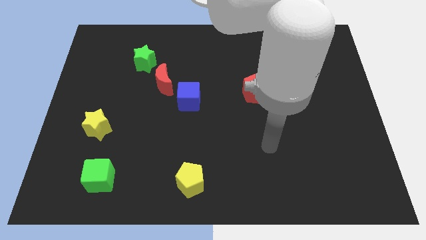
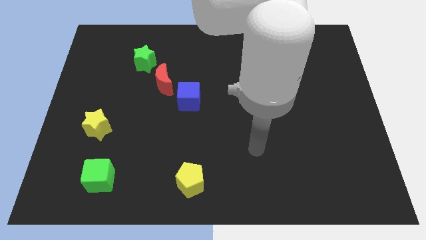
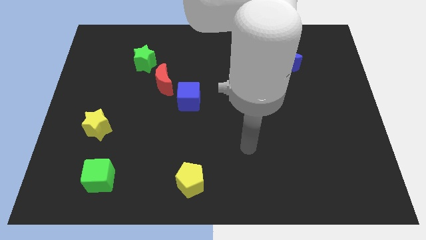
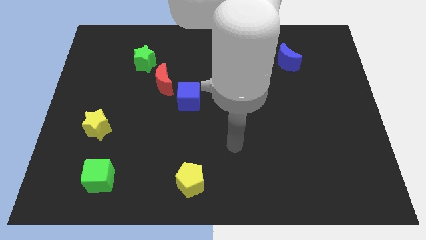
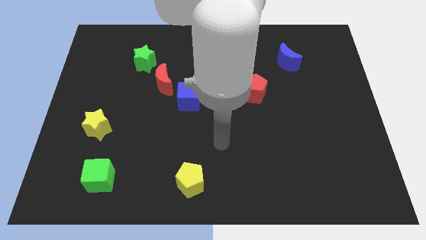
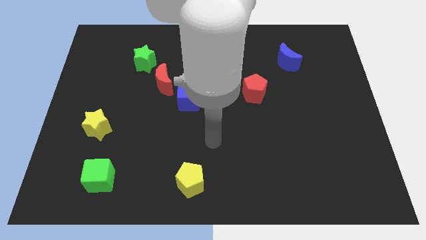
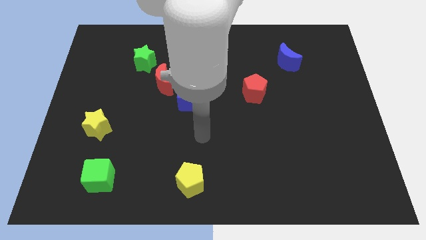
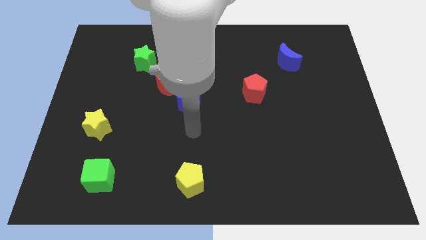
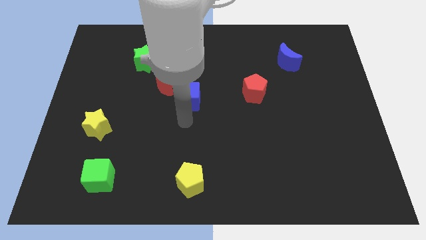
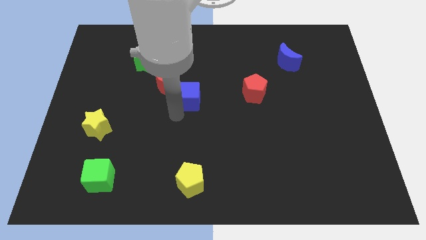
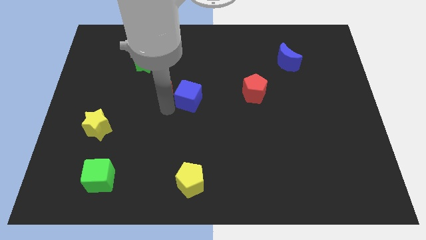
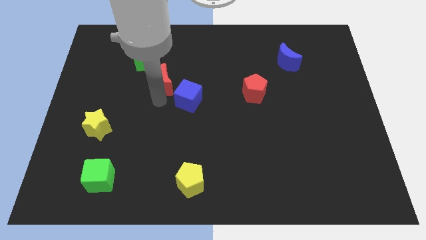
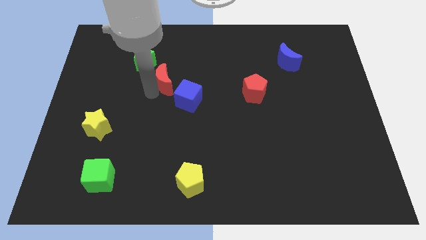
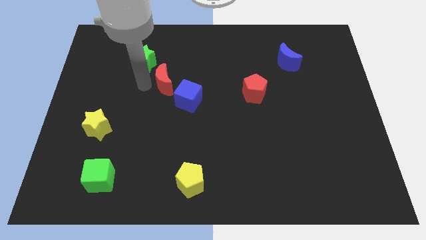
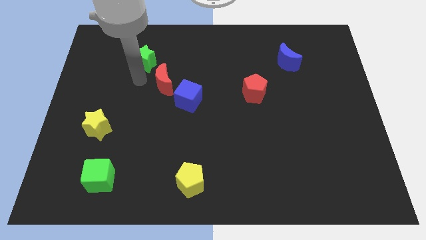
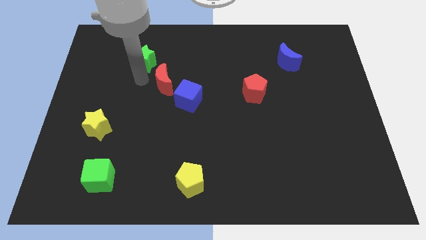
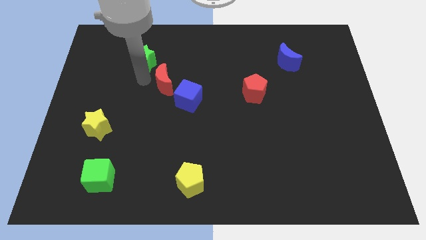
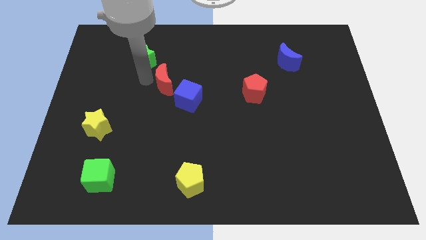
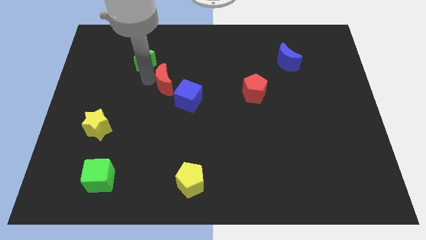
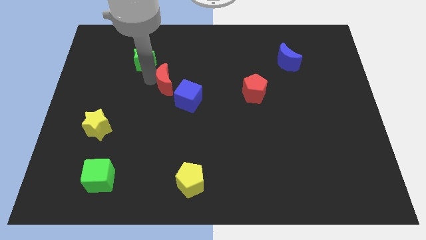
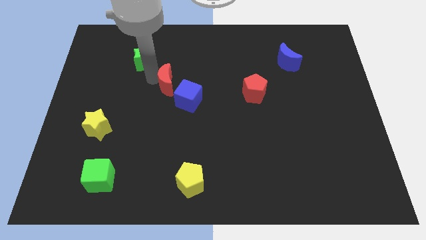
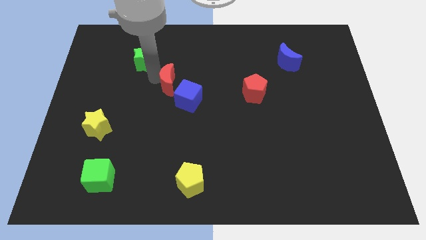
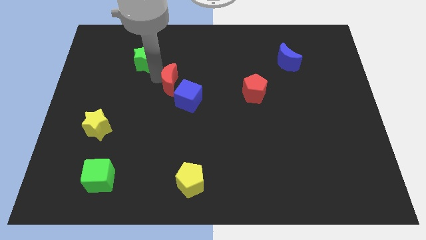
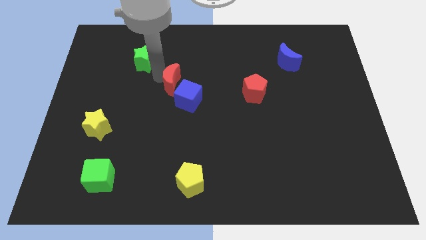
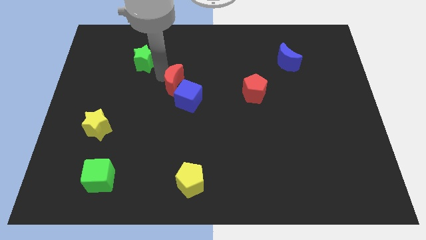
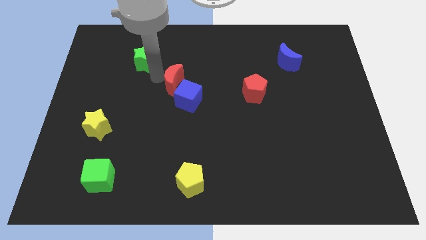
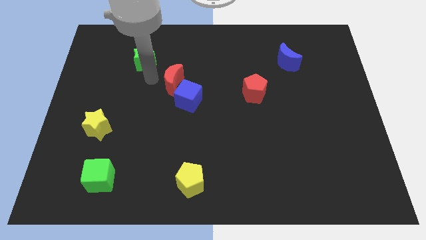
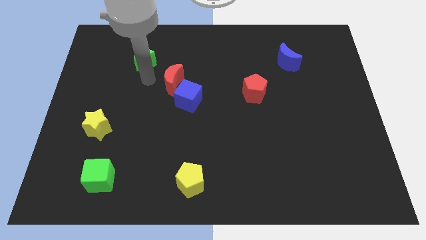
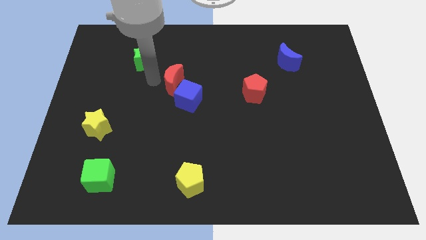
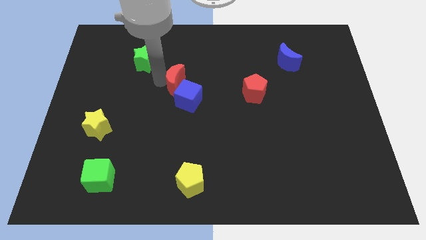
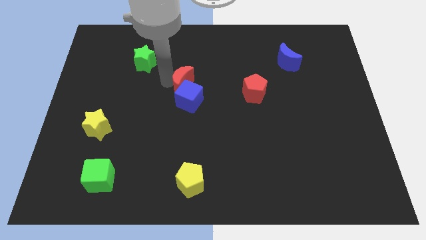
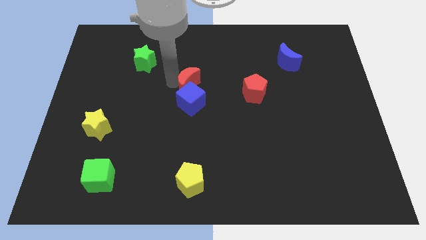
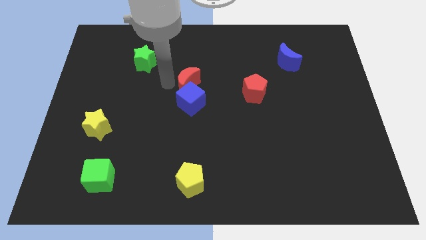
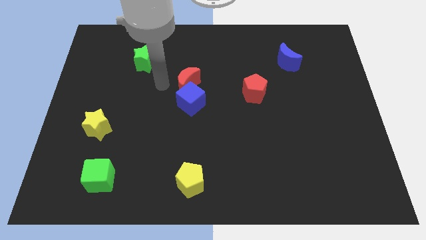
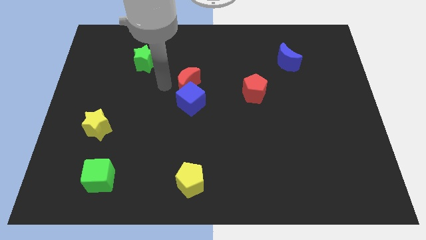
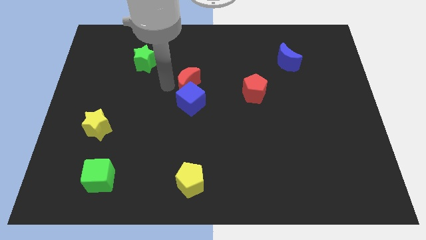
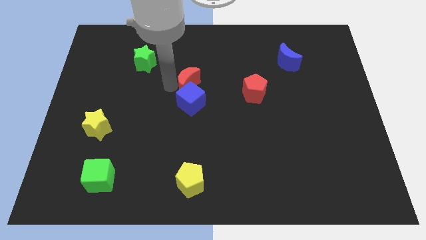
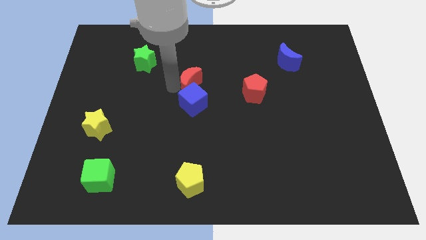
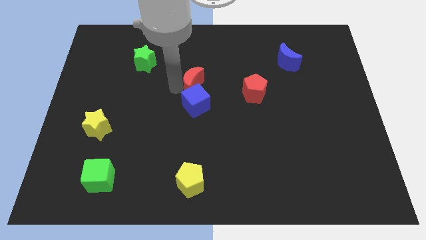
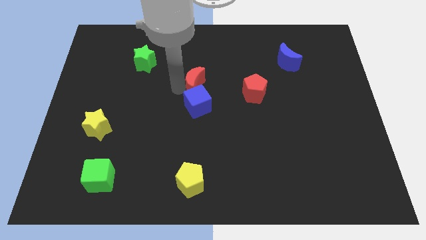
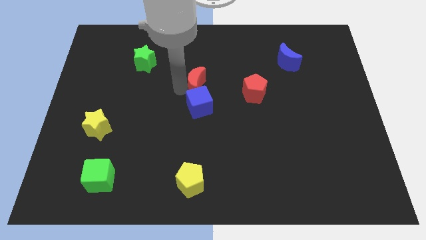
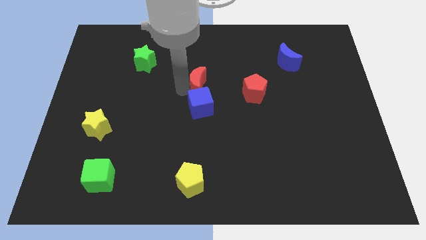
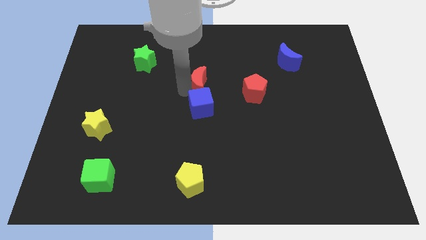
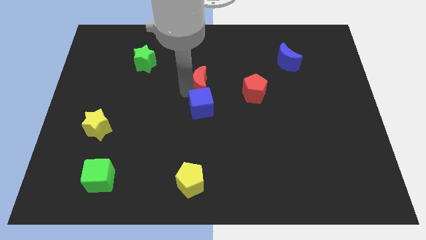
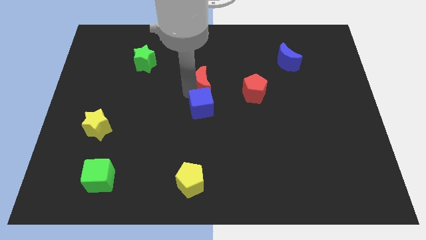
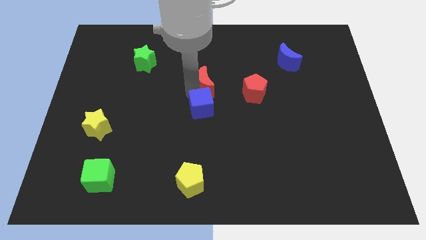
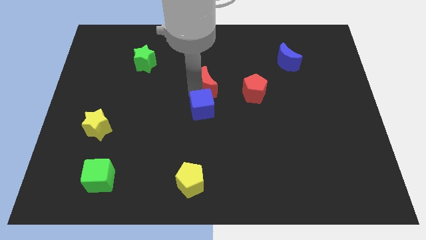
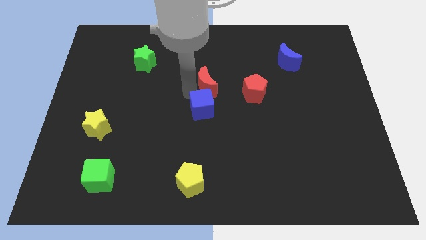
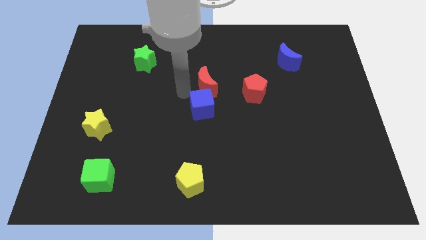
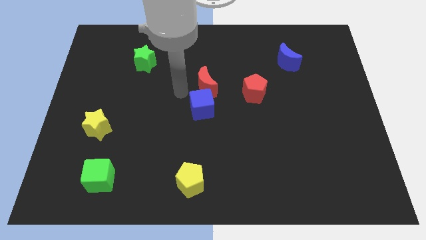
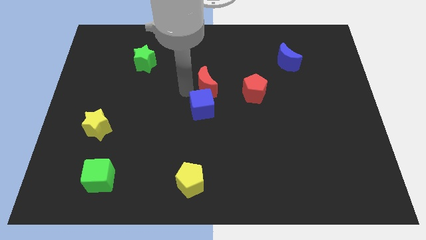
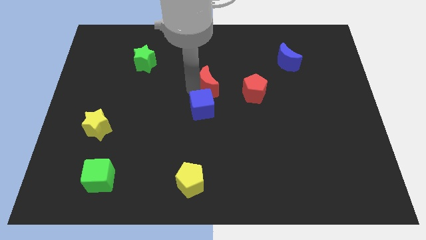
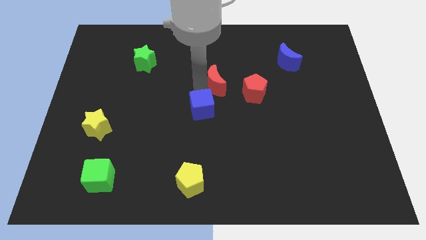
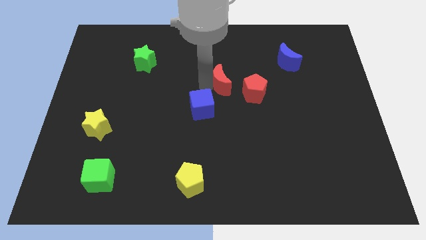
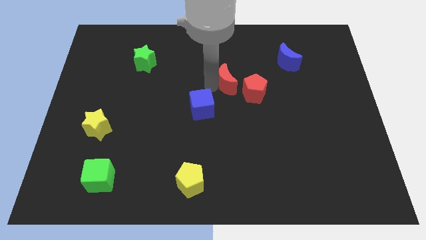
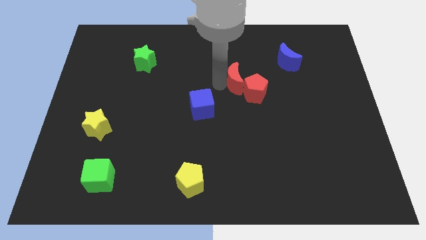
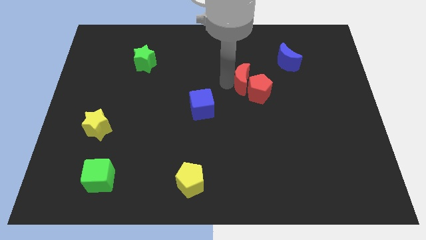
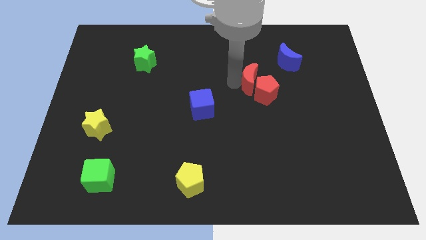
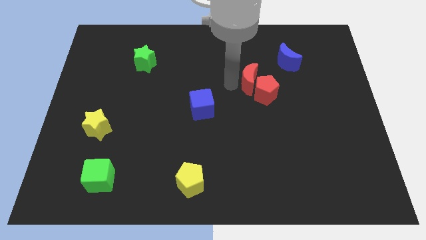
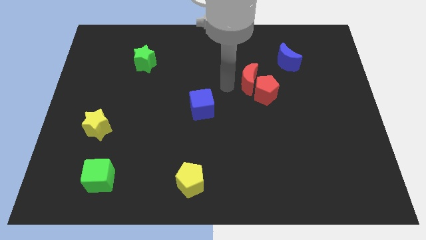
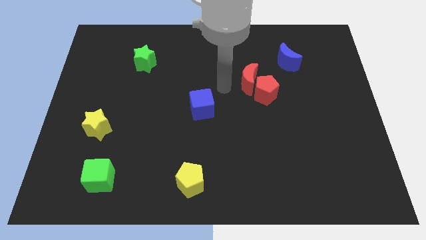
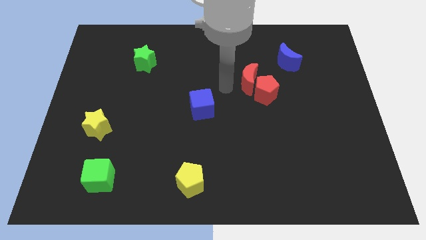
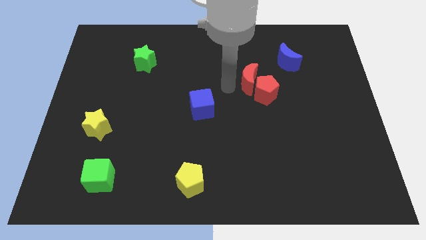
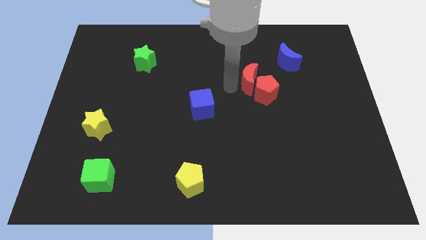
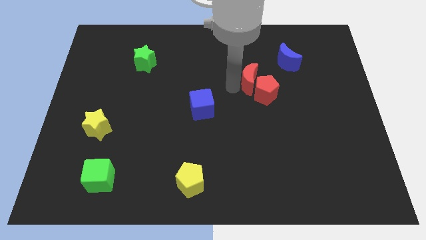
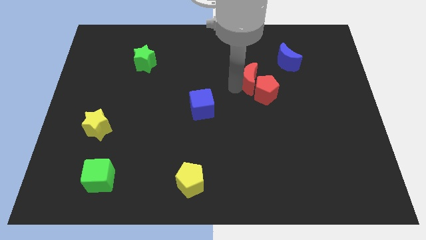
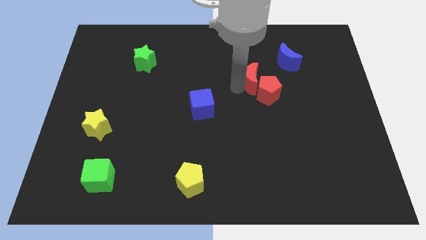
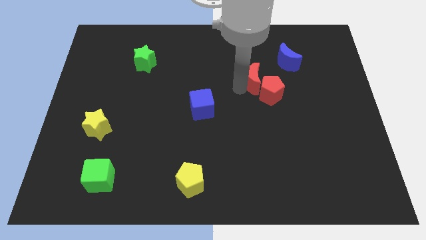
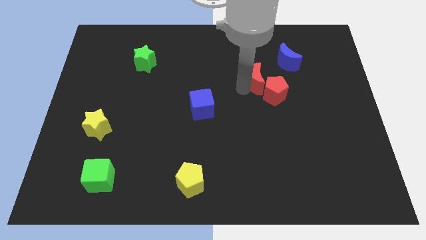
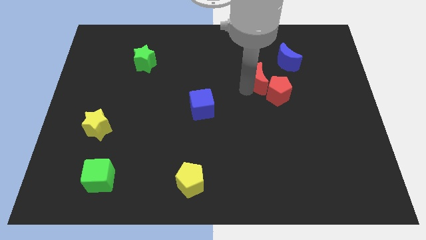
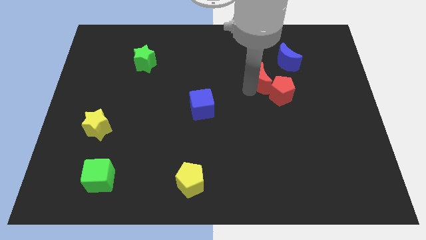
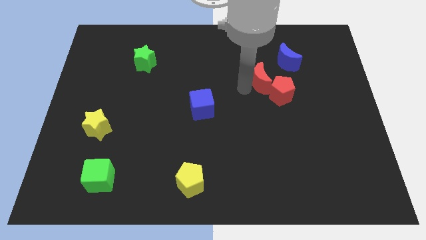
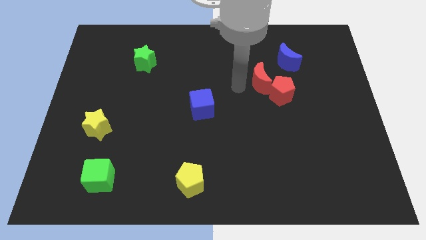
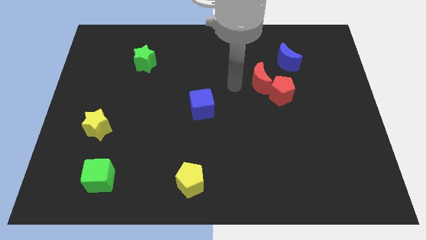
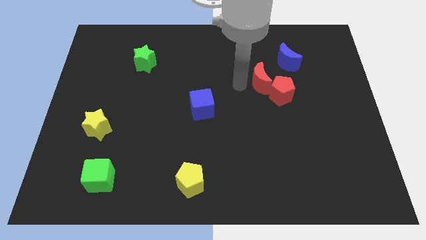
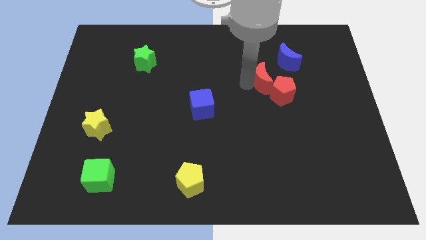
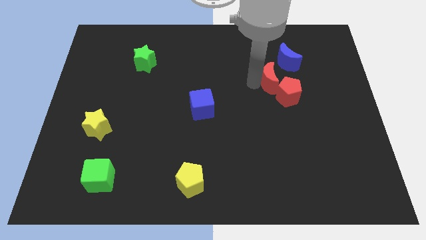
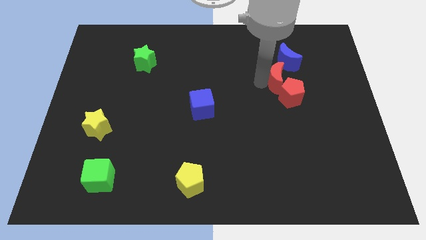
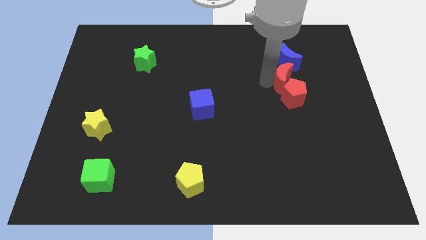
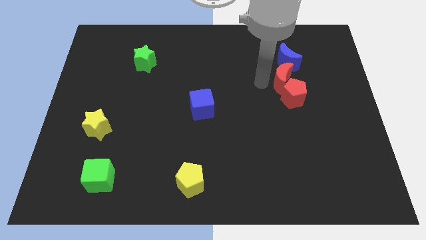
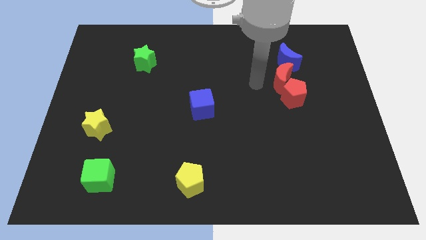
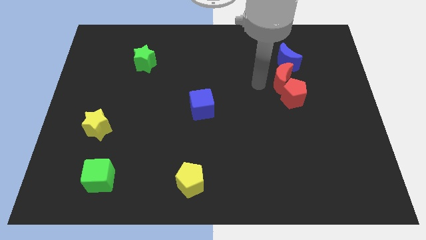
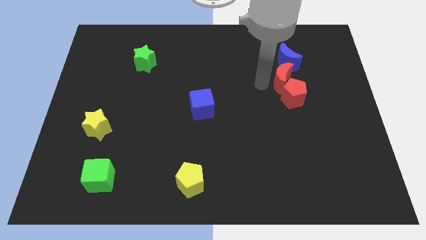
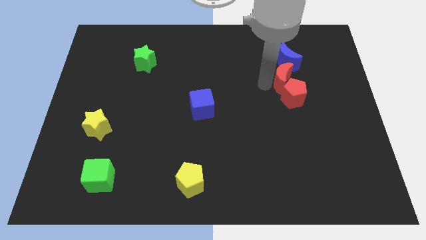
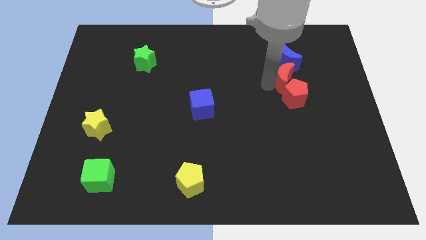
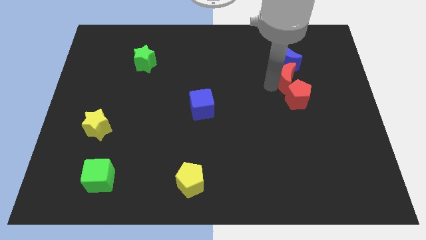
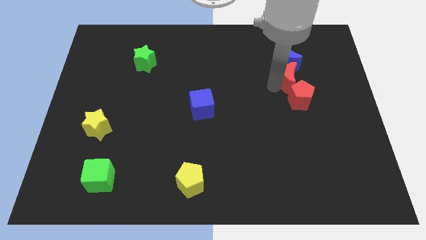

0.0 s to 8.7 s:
push the red moon to the bottom right side of the blue moon
